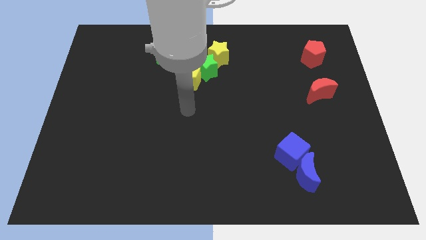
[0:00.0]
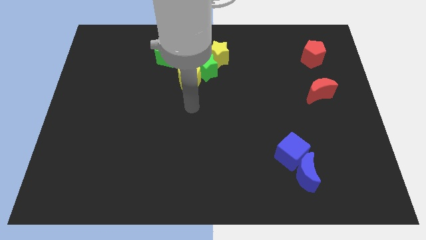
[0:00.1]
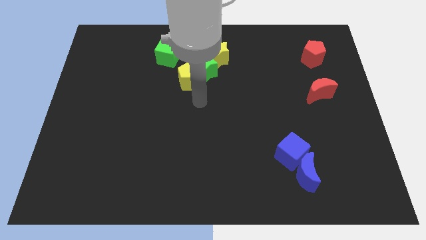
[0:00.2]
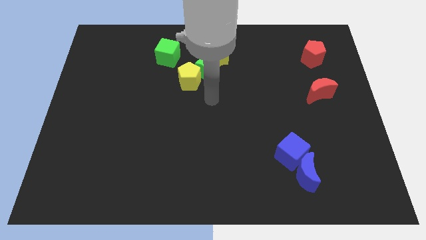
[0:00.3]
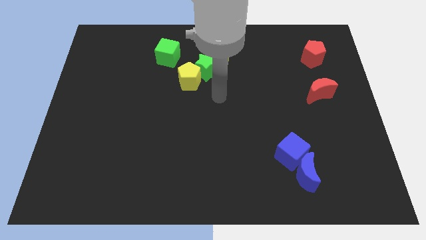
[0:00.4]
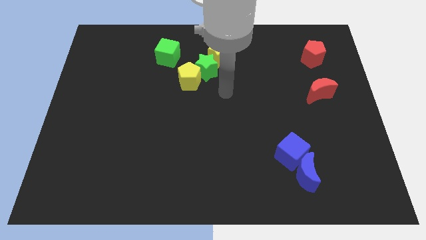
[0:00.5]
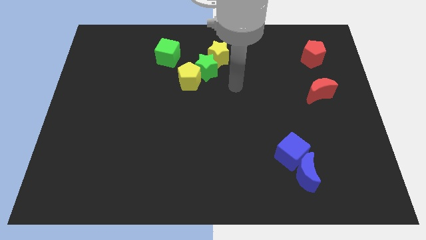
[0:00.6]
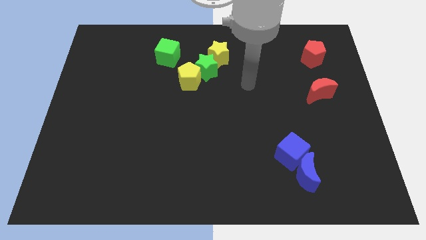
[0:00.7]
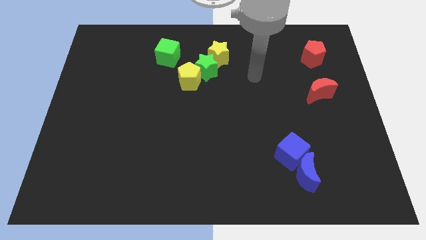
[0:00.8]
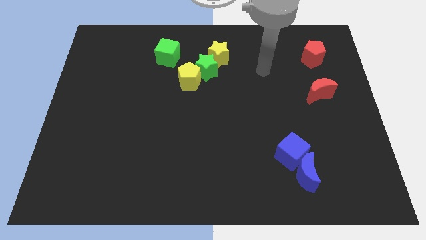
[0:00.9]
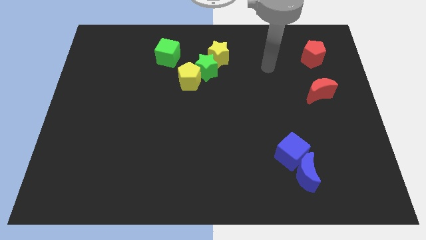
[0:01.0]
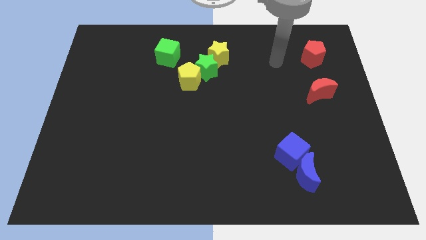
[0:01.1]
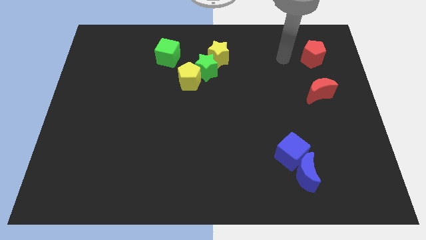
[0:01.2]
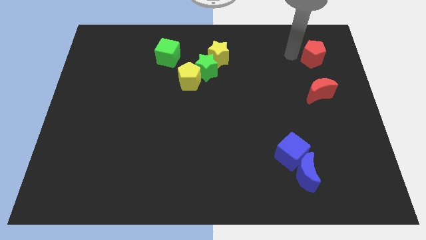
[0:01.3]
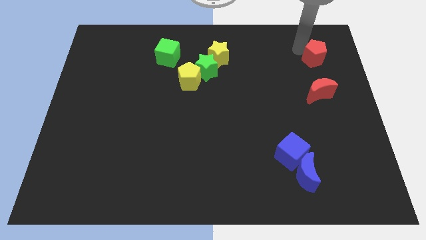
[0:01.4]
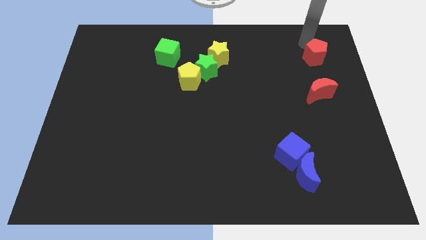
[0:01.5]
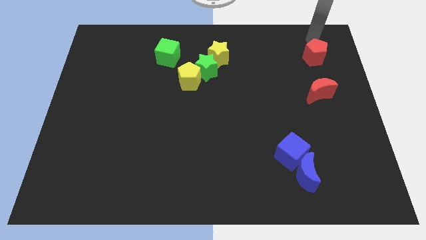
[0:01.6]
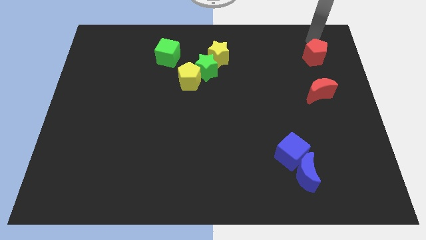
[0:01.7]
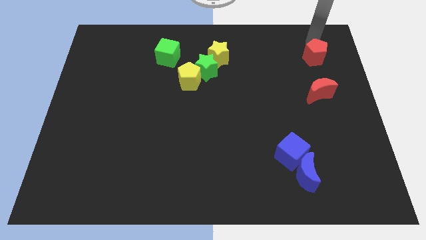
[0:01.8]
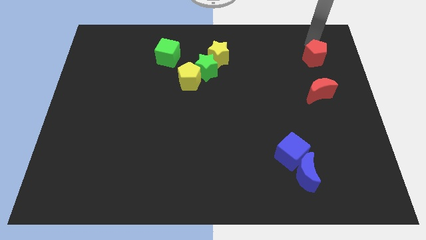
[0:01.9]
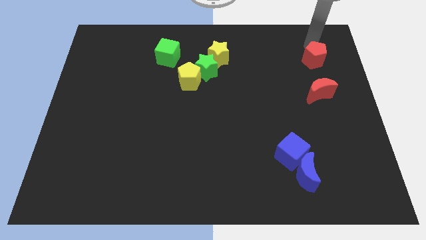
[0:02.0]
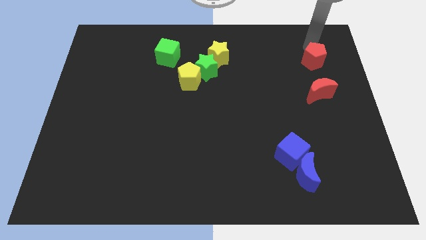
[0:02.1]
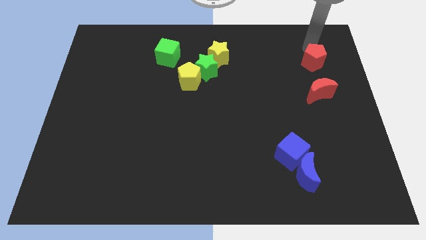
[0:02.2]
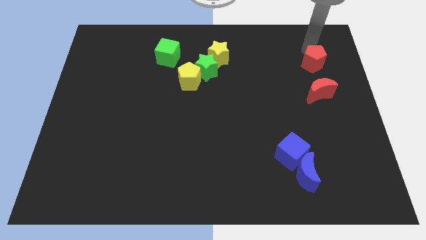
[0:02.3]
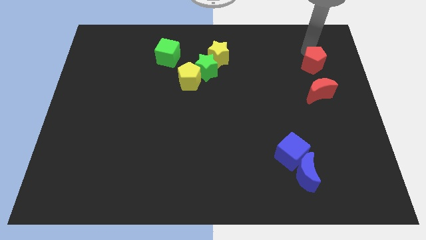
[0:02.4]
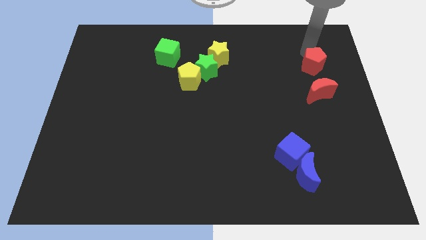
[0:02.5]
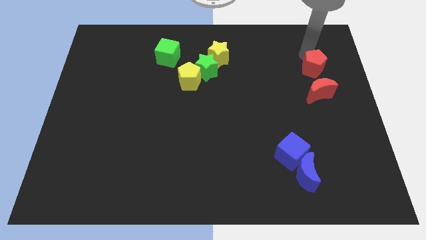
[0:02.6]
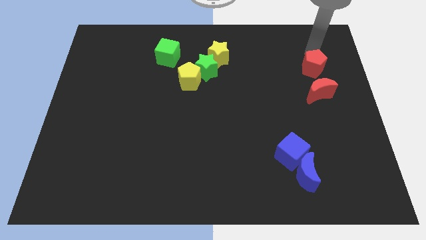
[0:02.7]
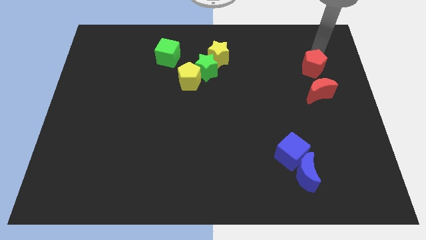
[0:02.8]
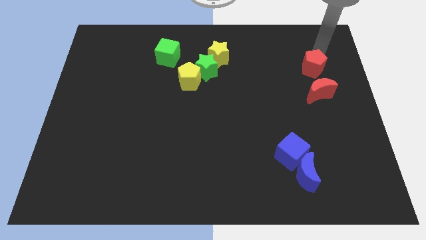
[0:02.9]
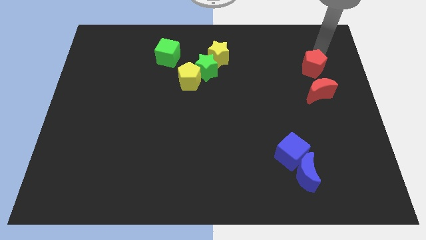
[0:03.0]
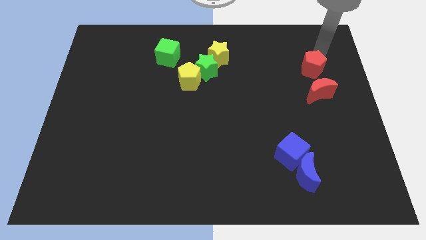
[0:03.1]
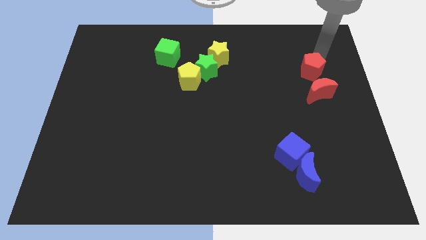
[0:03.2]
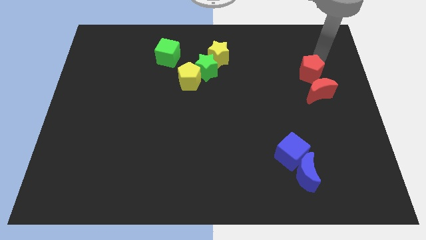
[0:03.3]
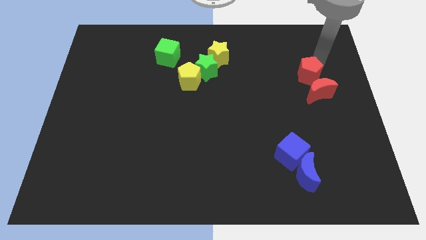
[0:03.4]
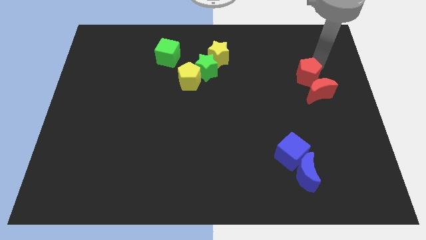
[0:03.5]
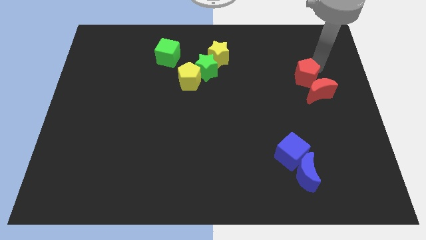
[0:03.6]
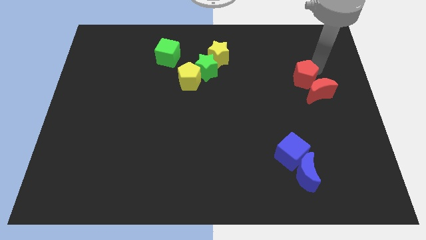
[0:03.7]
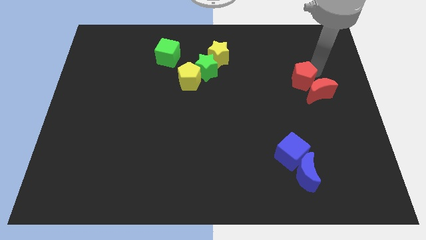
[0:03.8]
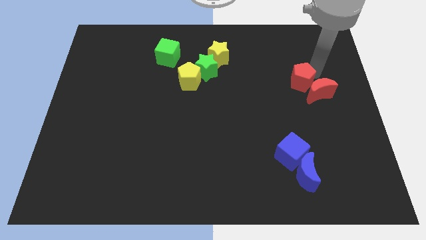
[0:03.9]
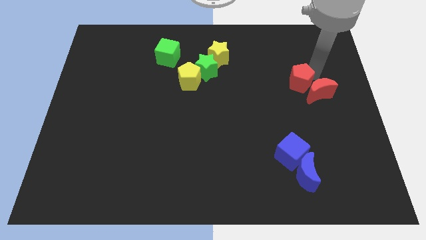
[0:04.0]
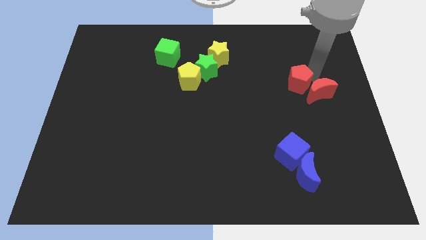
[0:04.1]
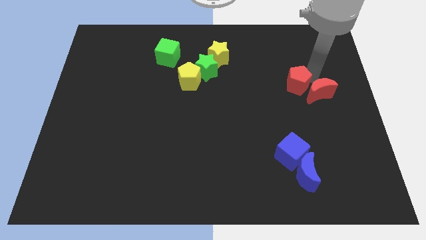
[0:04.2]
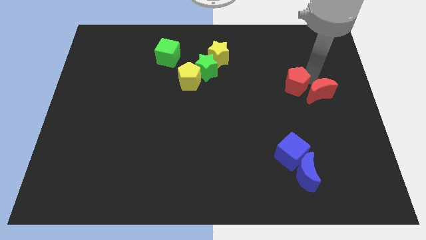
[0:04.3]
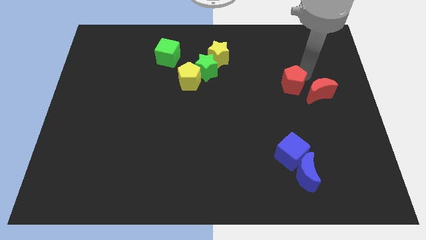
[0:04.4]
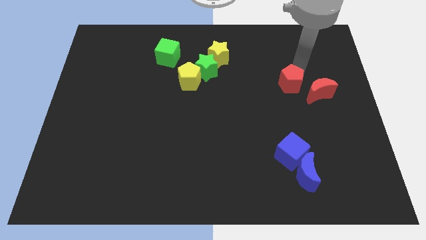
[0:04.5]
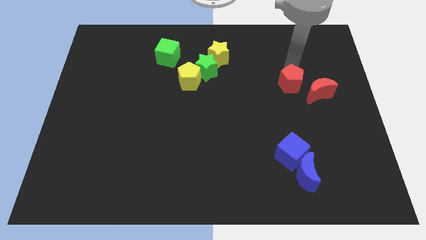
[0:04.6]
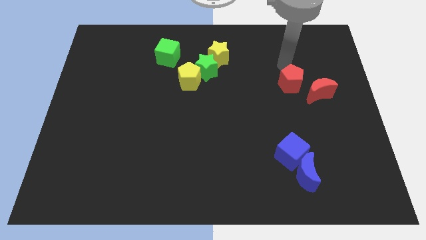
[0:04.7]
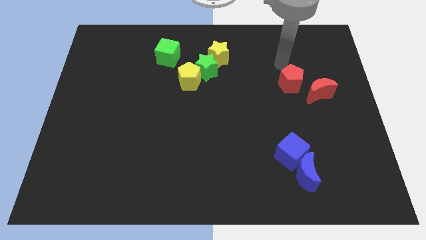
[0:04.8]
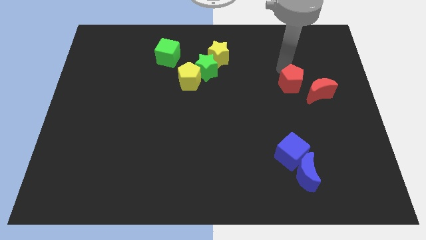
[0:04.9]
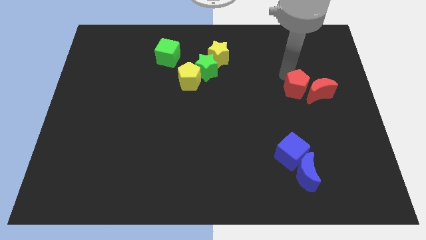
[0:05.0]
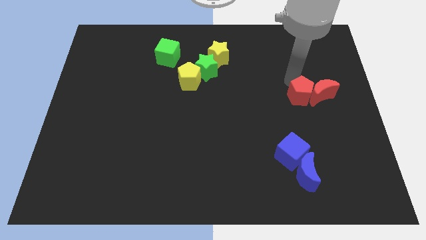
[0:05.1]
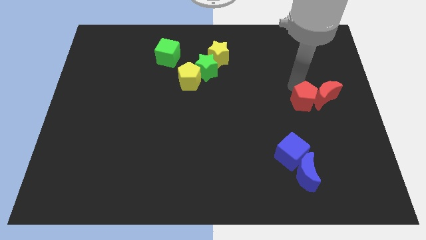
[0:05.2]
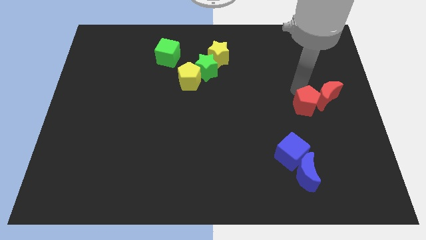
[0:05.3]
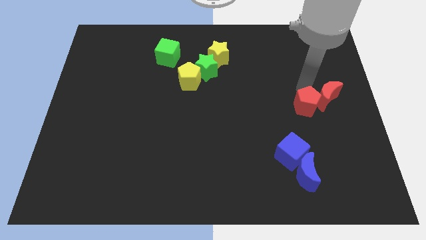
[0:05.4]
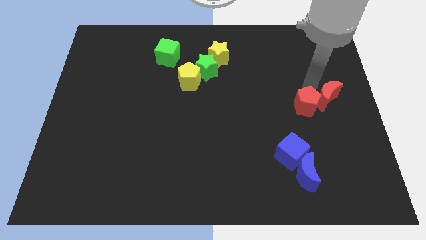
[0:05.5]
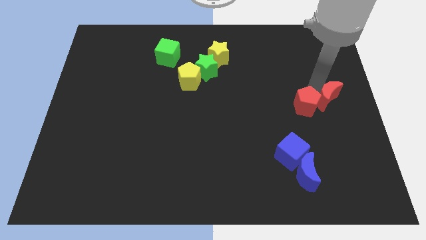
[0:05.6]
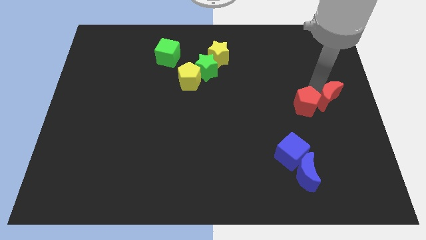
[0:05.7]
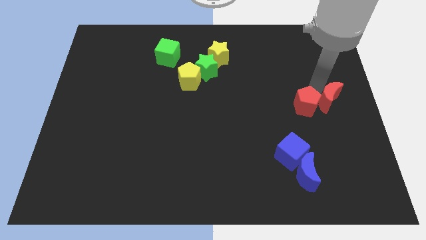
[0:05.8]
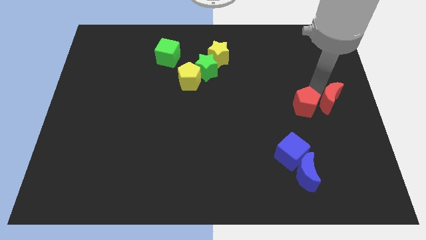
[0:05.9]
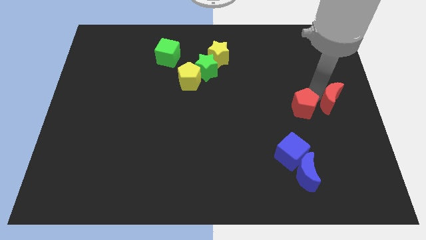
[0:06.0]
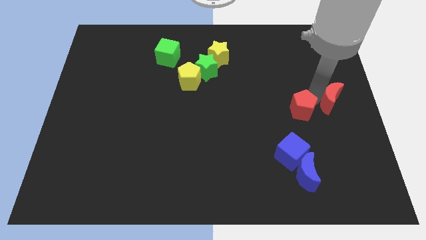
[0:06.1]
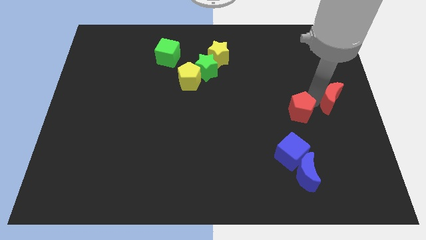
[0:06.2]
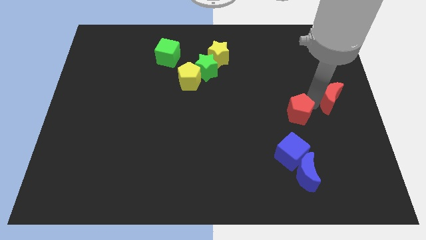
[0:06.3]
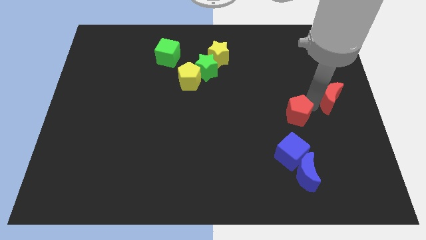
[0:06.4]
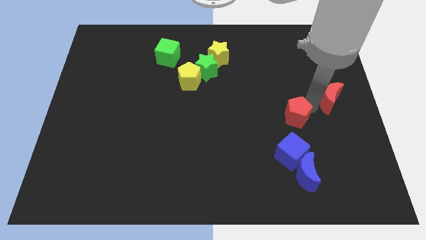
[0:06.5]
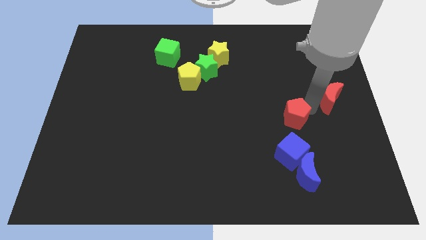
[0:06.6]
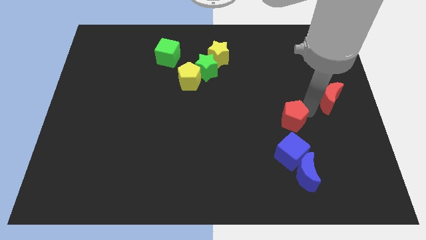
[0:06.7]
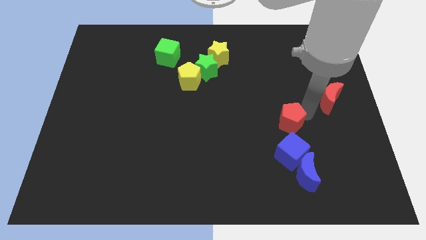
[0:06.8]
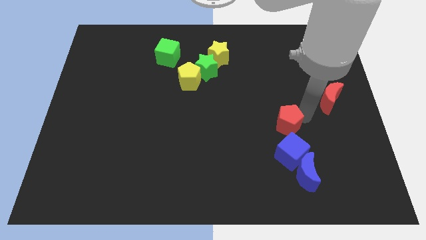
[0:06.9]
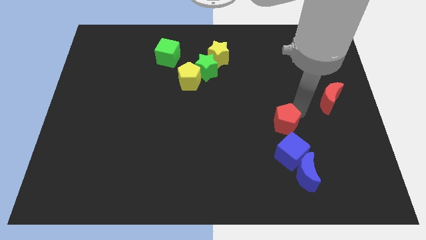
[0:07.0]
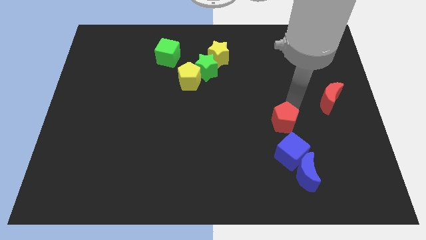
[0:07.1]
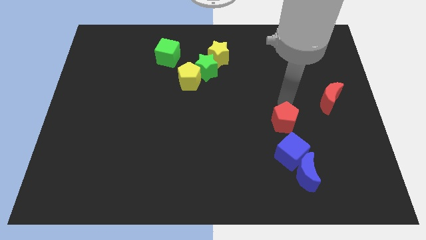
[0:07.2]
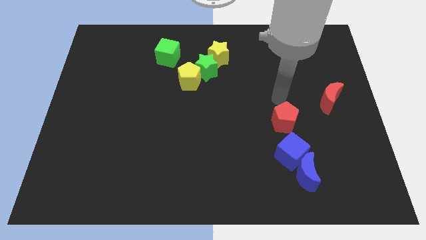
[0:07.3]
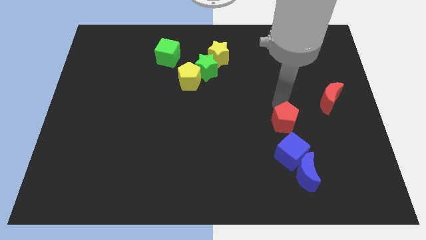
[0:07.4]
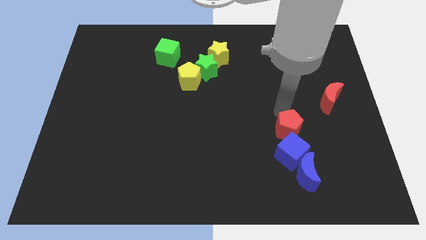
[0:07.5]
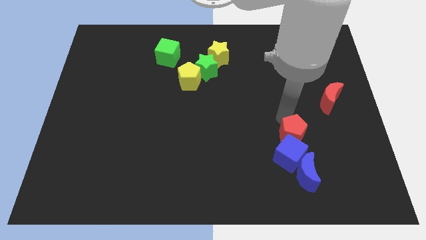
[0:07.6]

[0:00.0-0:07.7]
put the red pentagon next to the blue cube
